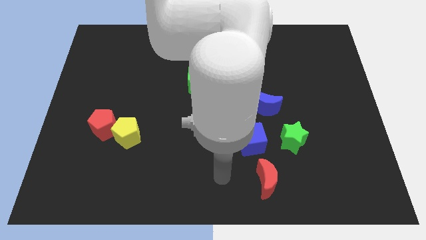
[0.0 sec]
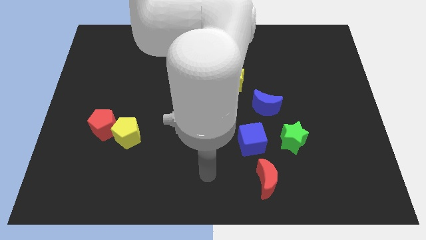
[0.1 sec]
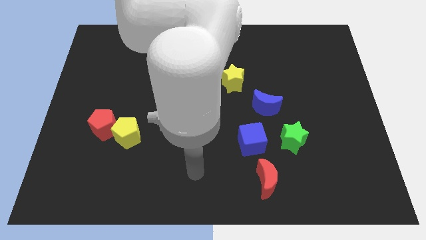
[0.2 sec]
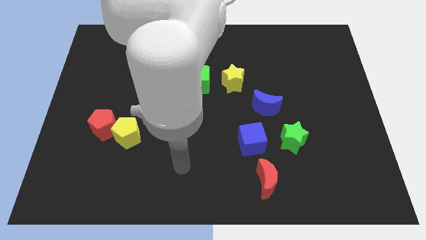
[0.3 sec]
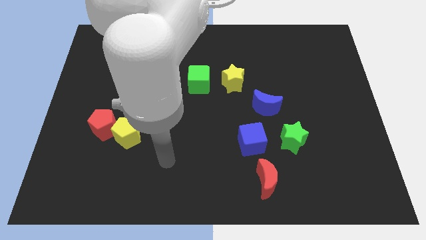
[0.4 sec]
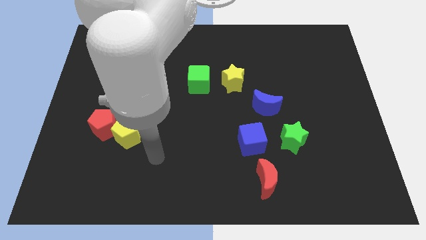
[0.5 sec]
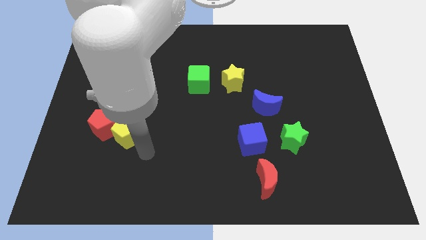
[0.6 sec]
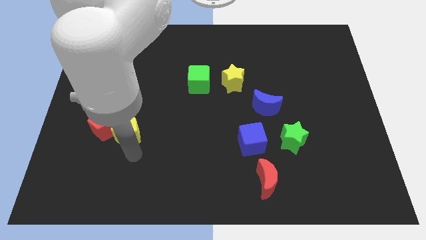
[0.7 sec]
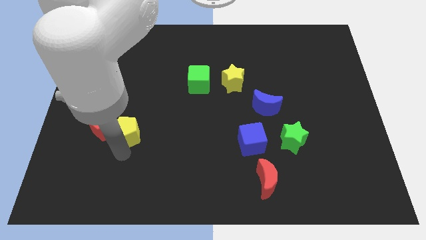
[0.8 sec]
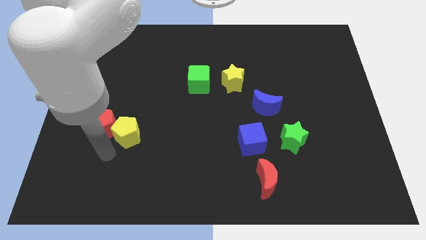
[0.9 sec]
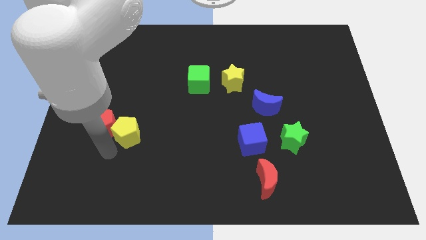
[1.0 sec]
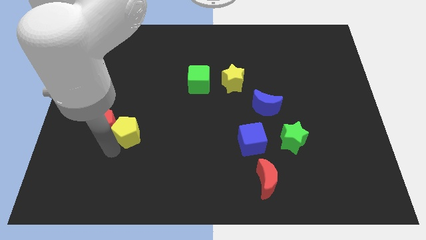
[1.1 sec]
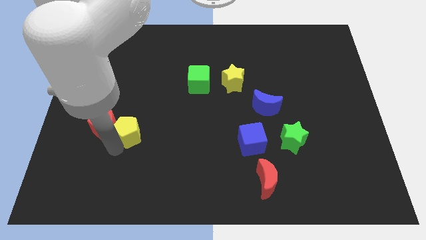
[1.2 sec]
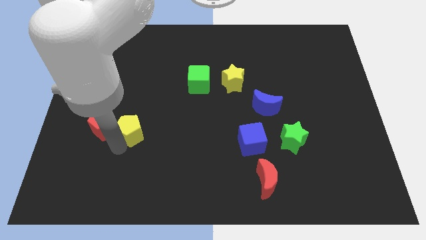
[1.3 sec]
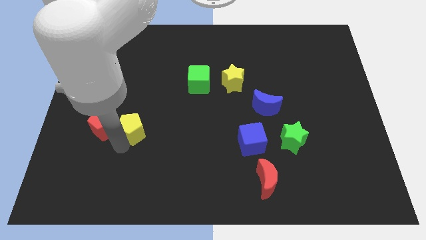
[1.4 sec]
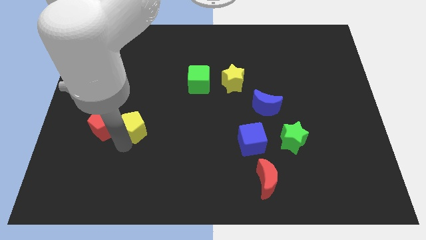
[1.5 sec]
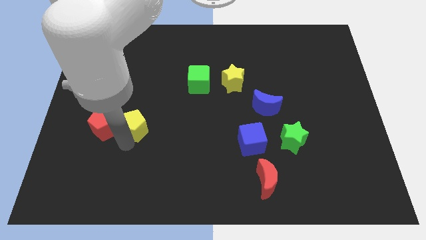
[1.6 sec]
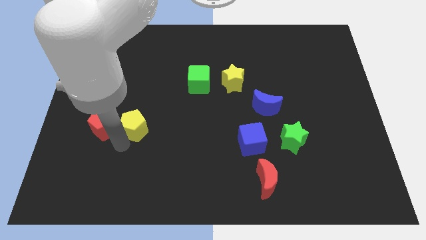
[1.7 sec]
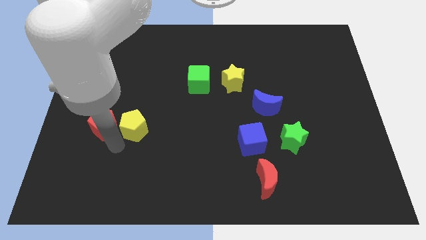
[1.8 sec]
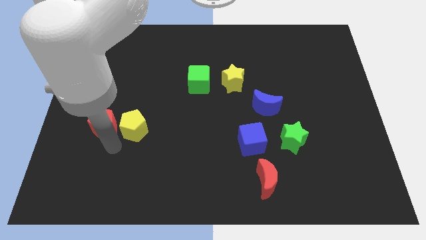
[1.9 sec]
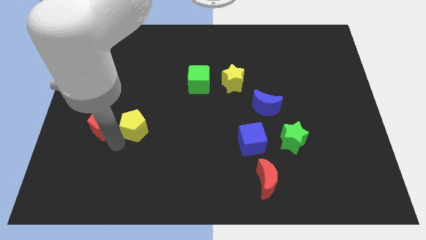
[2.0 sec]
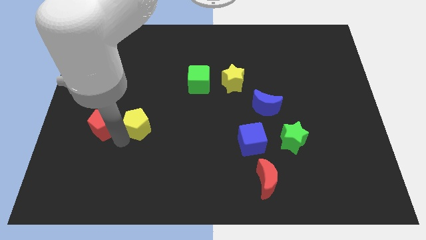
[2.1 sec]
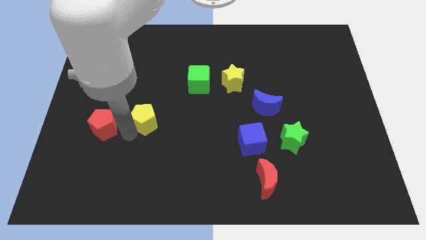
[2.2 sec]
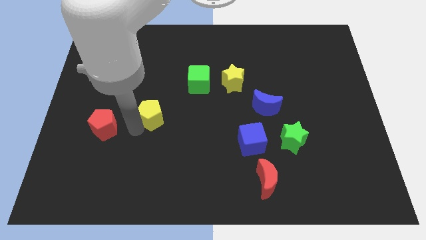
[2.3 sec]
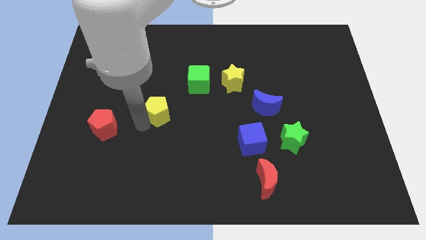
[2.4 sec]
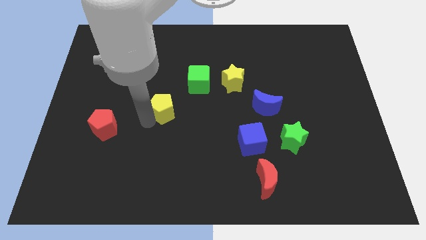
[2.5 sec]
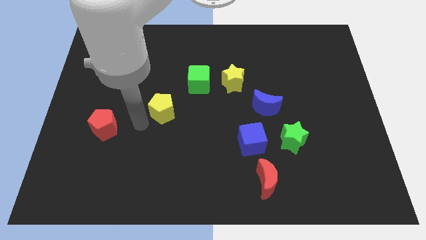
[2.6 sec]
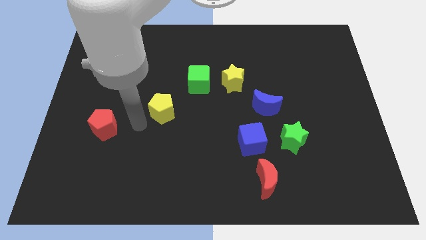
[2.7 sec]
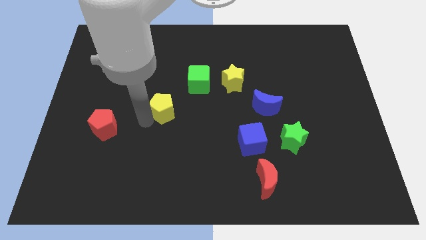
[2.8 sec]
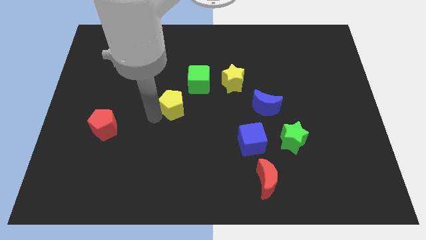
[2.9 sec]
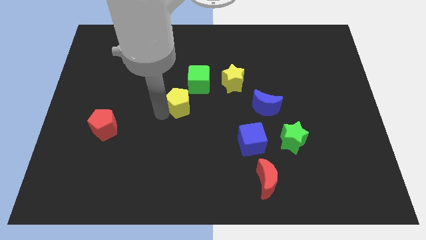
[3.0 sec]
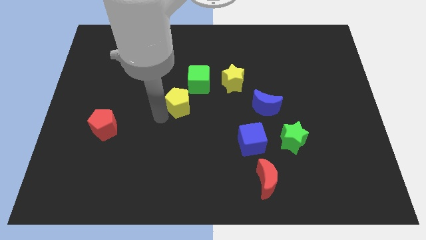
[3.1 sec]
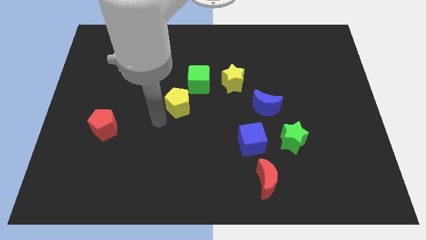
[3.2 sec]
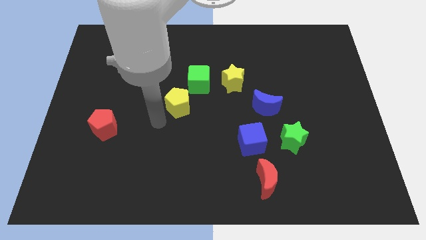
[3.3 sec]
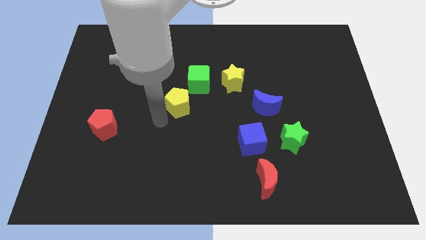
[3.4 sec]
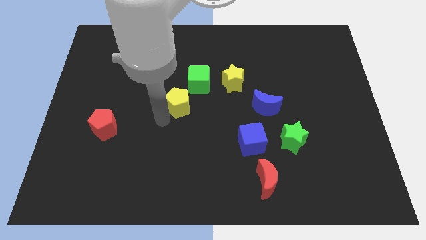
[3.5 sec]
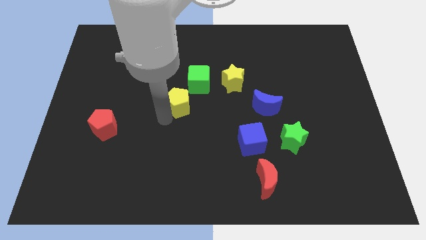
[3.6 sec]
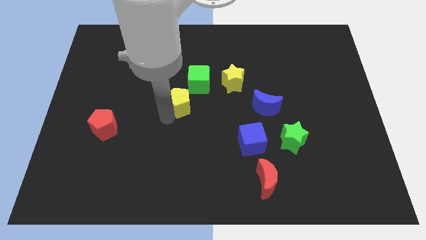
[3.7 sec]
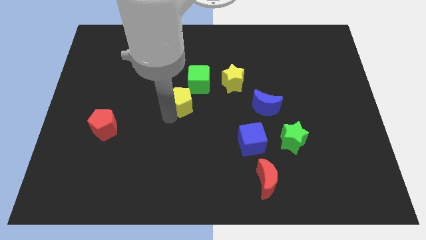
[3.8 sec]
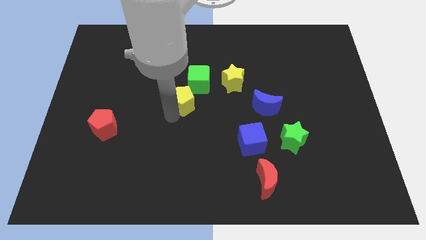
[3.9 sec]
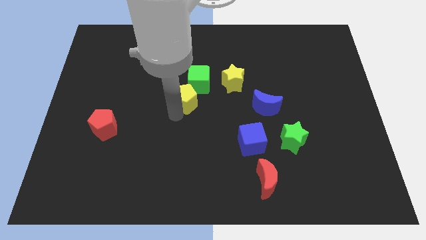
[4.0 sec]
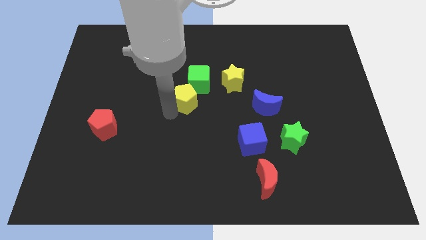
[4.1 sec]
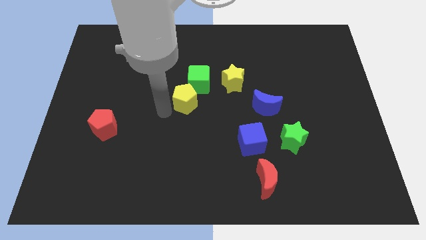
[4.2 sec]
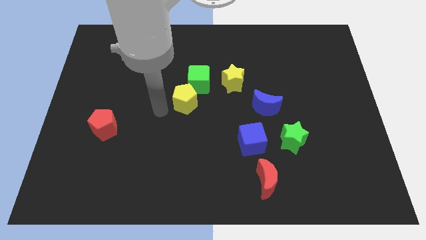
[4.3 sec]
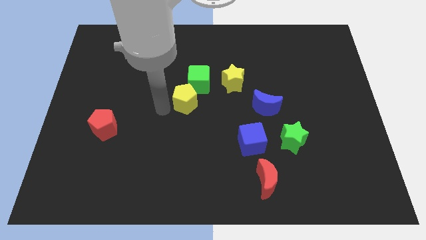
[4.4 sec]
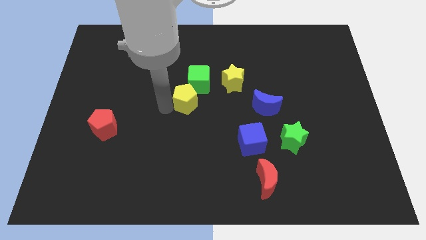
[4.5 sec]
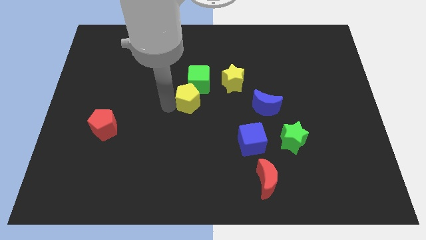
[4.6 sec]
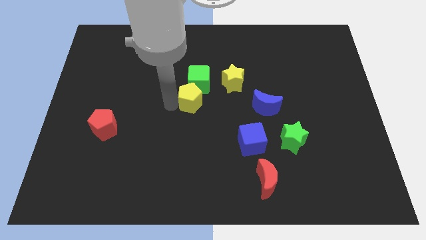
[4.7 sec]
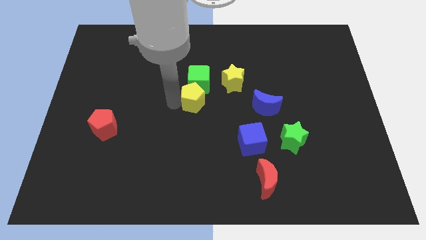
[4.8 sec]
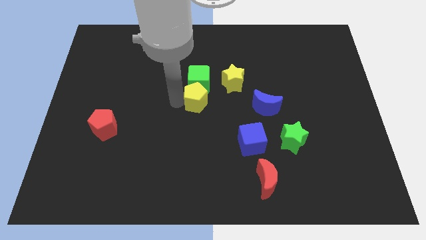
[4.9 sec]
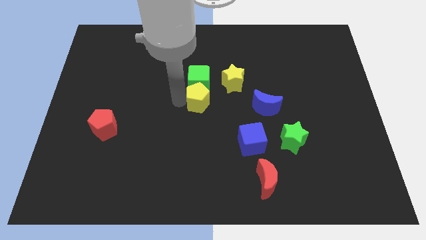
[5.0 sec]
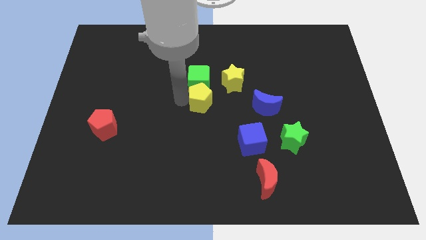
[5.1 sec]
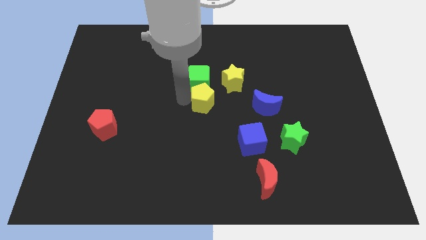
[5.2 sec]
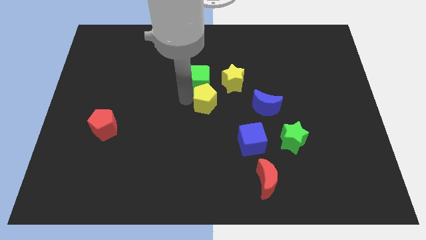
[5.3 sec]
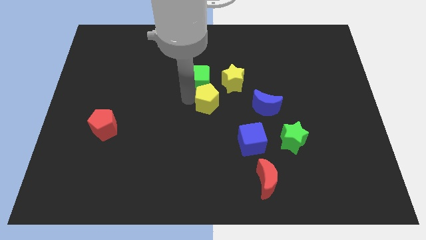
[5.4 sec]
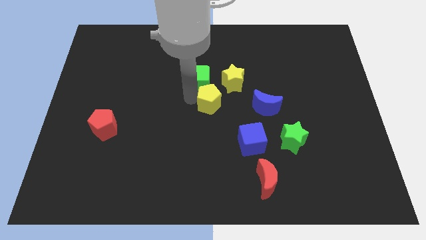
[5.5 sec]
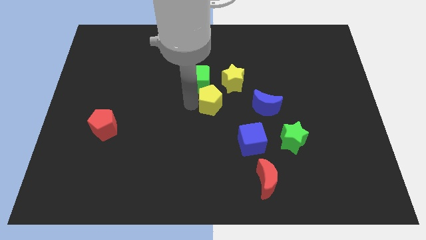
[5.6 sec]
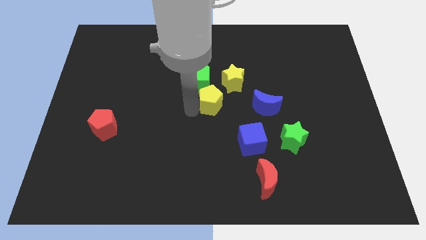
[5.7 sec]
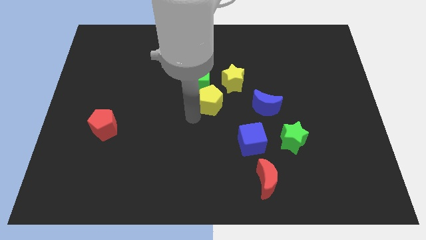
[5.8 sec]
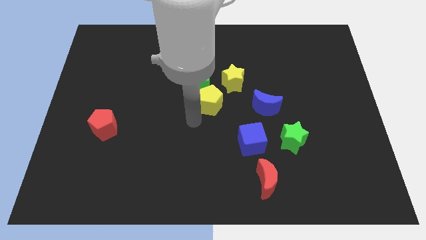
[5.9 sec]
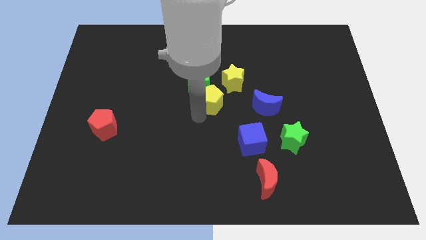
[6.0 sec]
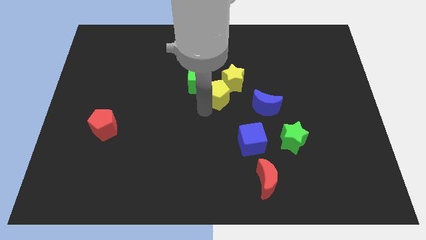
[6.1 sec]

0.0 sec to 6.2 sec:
move the yellow pentagon towards the yellow star

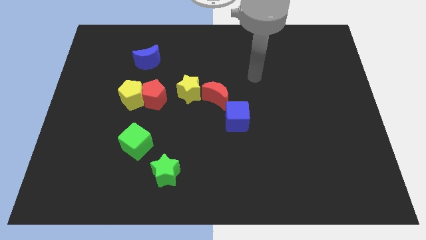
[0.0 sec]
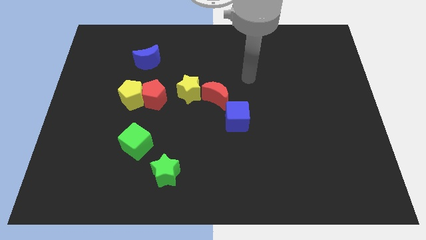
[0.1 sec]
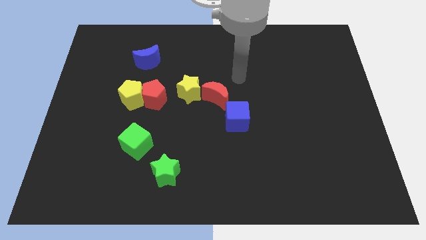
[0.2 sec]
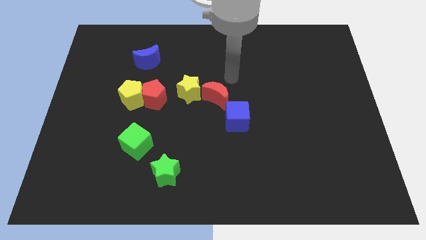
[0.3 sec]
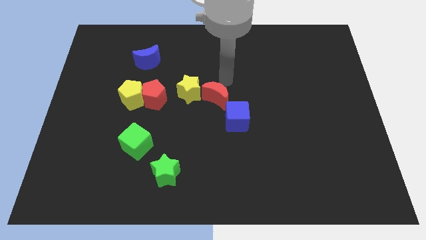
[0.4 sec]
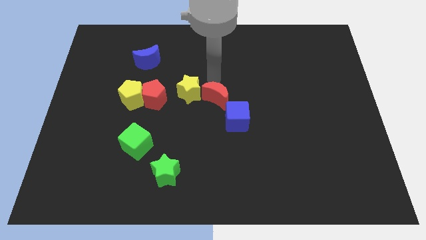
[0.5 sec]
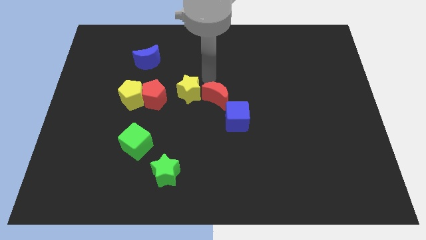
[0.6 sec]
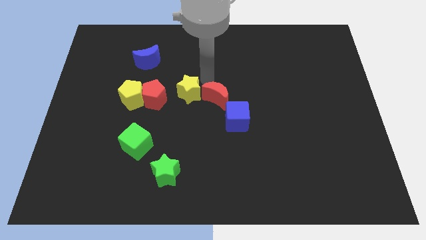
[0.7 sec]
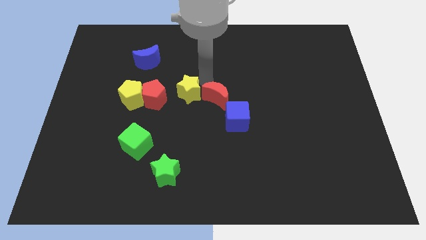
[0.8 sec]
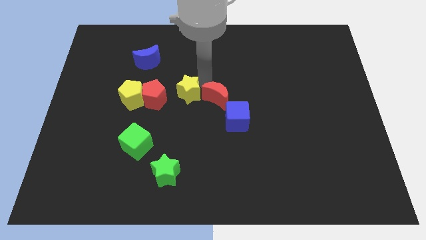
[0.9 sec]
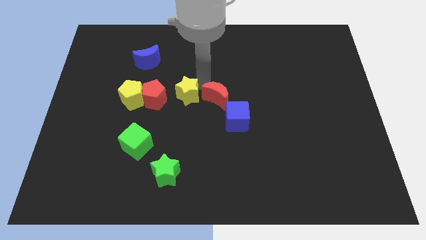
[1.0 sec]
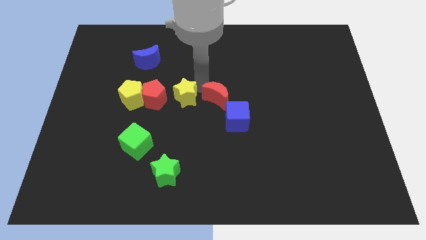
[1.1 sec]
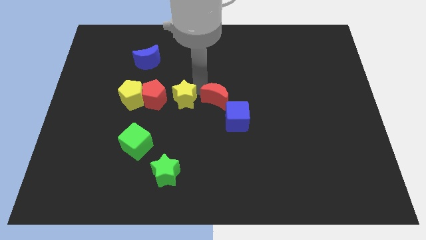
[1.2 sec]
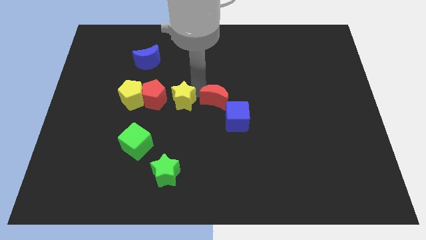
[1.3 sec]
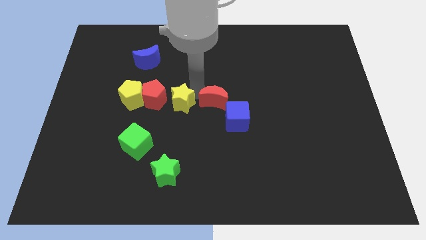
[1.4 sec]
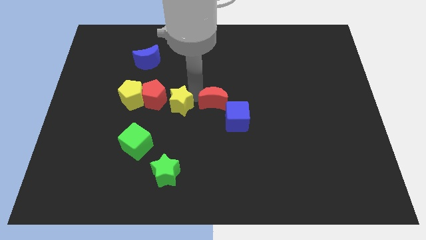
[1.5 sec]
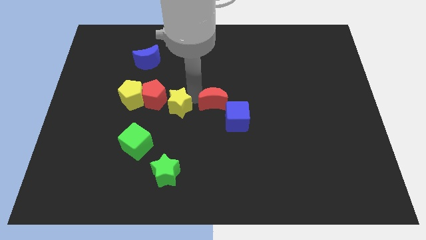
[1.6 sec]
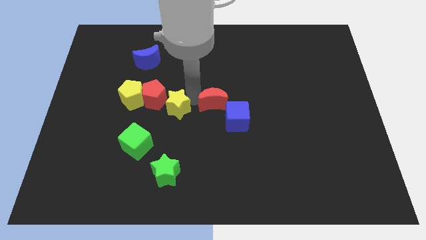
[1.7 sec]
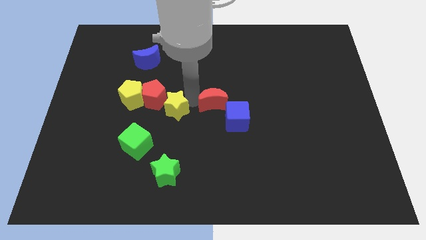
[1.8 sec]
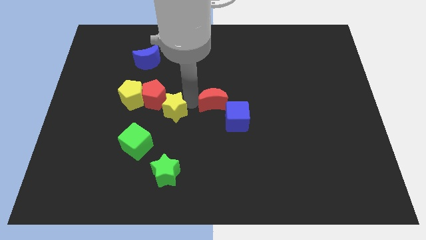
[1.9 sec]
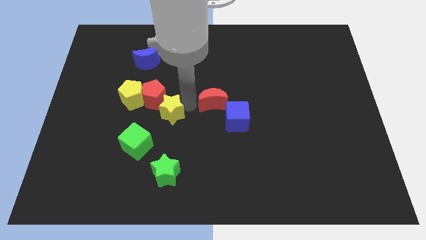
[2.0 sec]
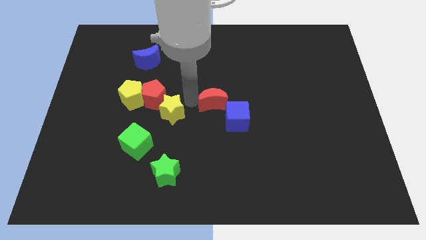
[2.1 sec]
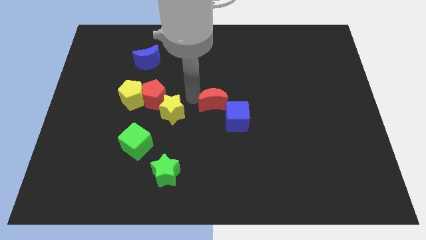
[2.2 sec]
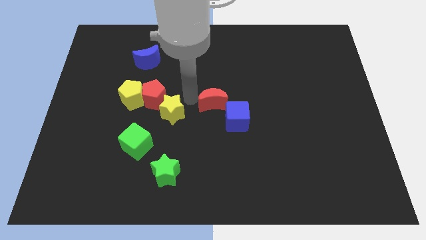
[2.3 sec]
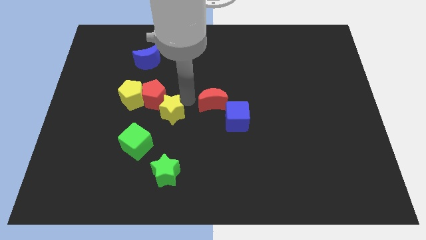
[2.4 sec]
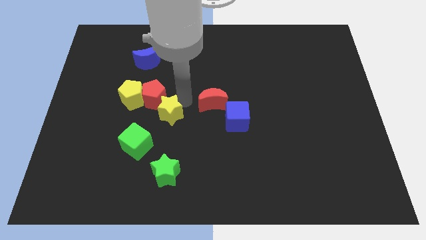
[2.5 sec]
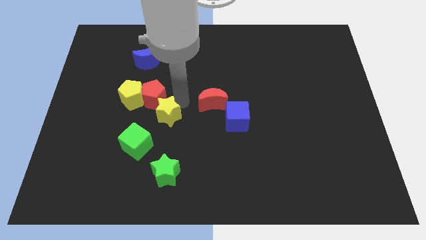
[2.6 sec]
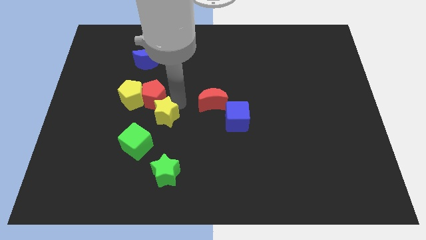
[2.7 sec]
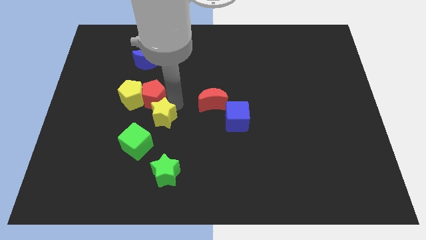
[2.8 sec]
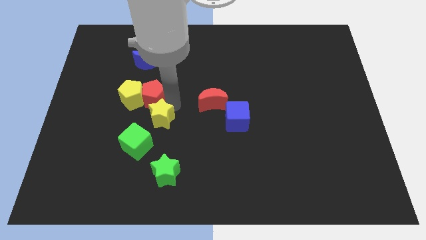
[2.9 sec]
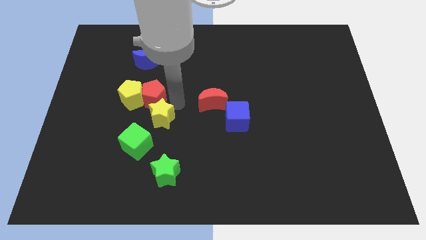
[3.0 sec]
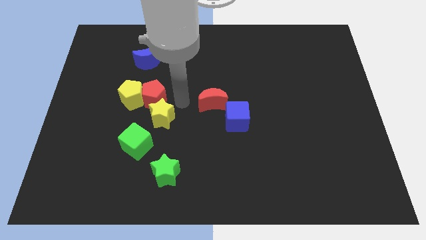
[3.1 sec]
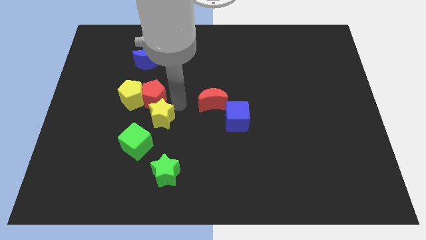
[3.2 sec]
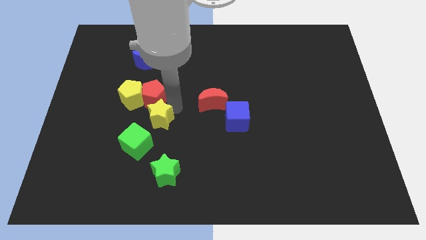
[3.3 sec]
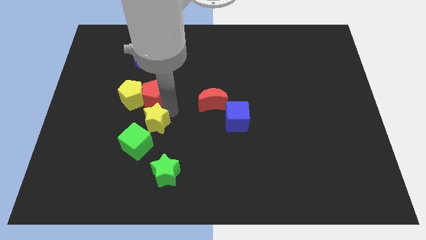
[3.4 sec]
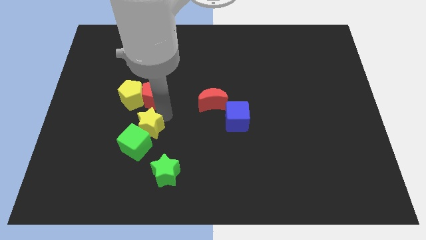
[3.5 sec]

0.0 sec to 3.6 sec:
push the yellow star close to the green cube
